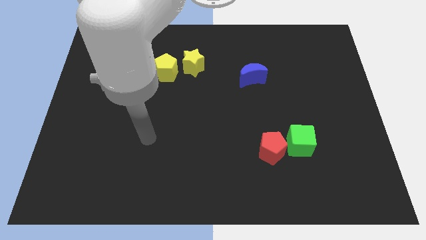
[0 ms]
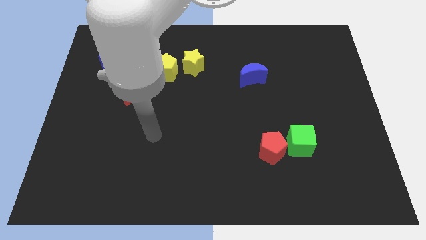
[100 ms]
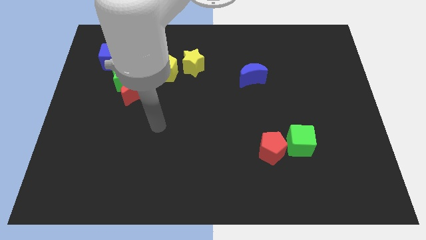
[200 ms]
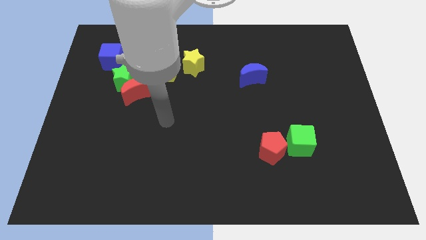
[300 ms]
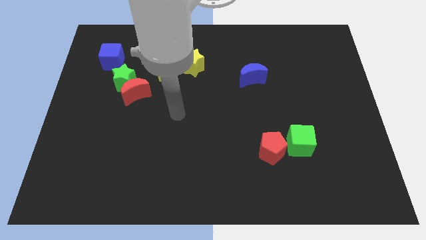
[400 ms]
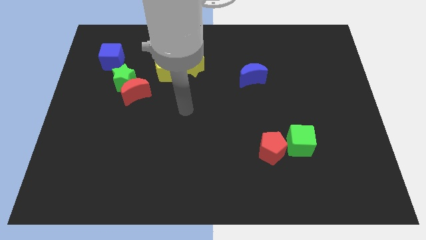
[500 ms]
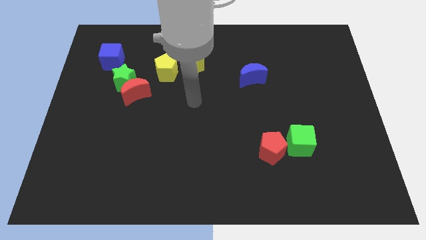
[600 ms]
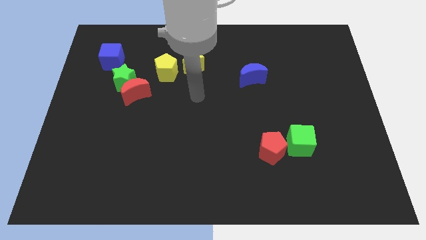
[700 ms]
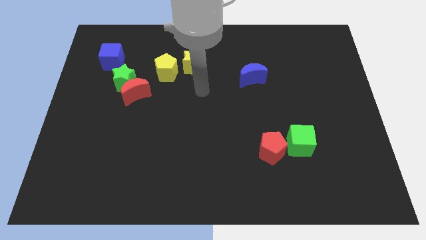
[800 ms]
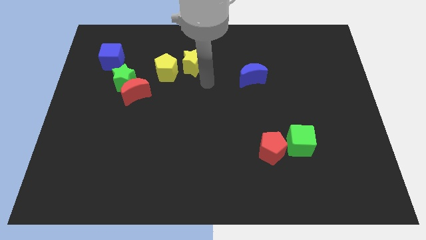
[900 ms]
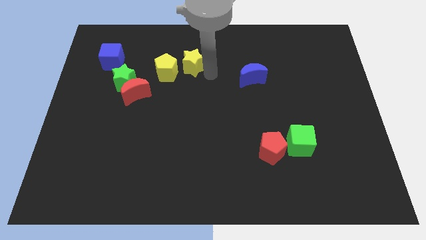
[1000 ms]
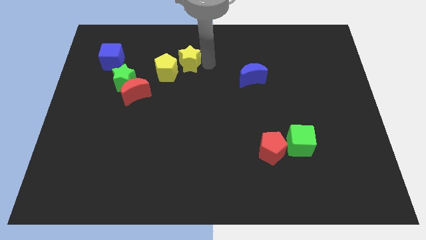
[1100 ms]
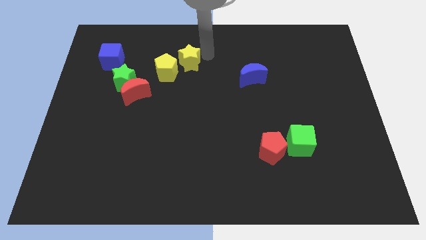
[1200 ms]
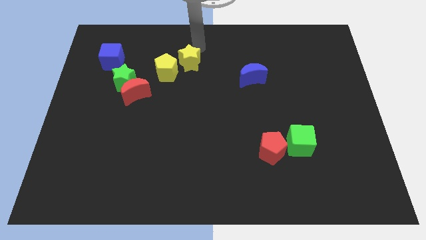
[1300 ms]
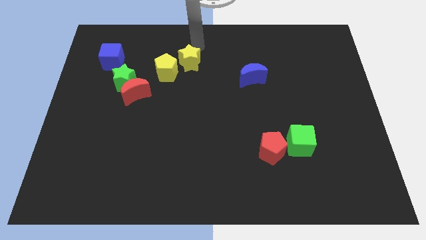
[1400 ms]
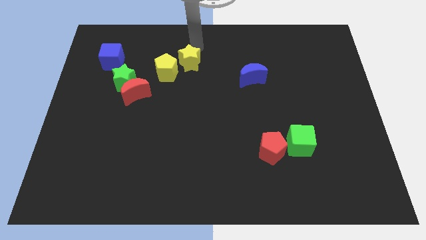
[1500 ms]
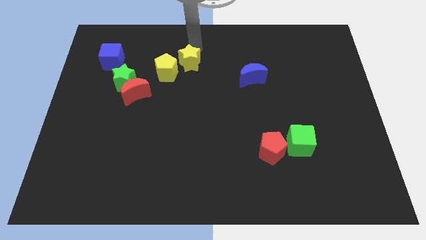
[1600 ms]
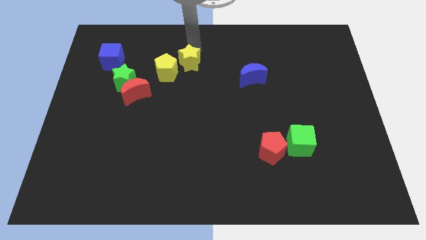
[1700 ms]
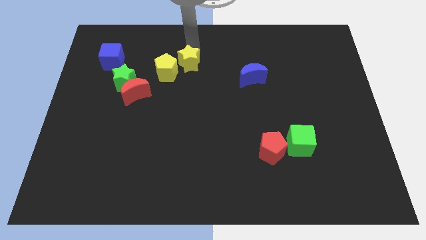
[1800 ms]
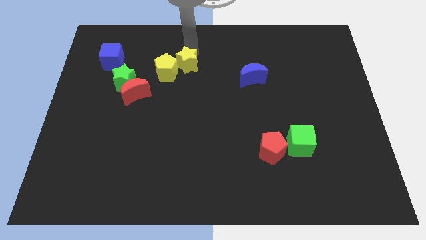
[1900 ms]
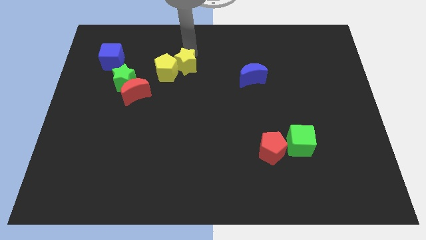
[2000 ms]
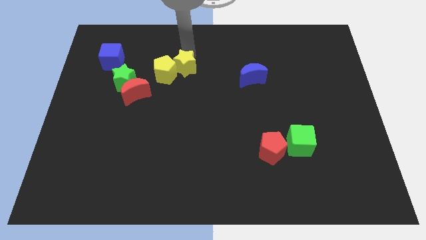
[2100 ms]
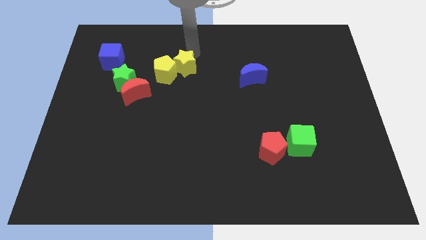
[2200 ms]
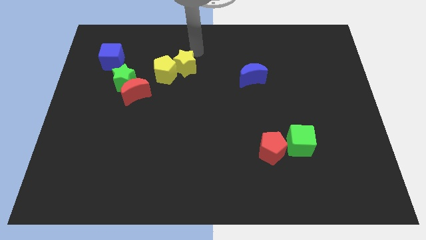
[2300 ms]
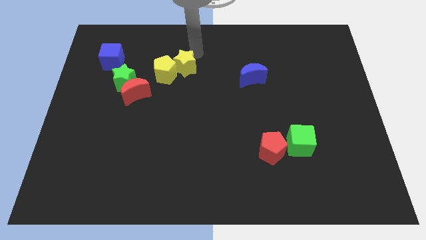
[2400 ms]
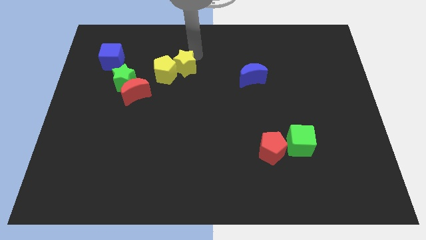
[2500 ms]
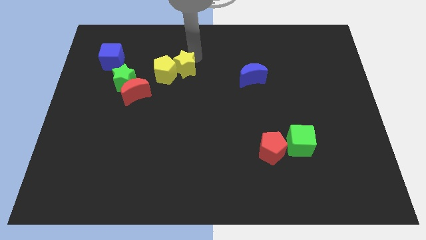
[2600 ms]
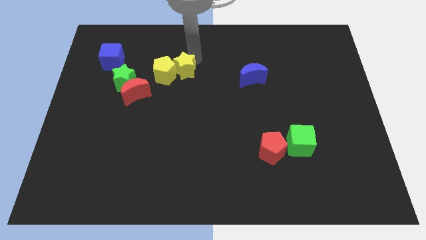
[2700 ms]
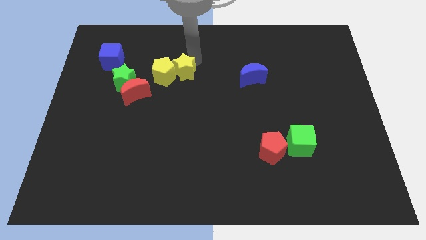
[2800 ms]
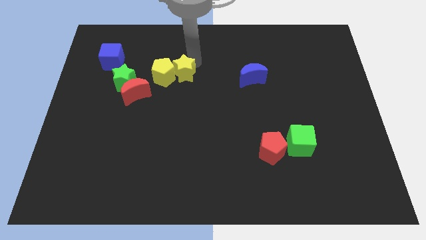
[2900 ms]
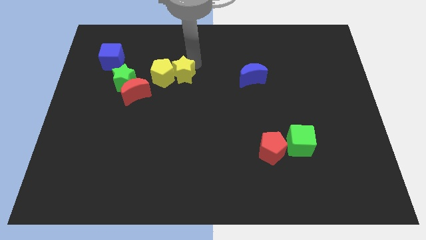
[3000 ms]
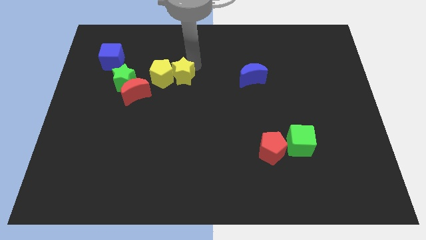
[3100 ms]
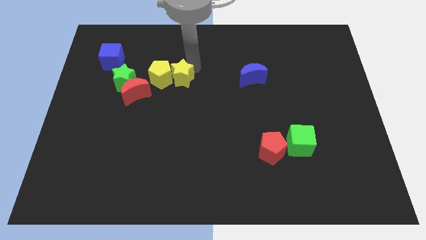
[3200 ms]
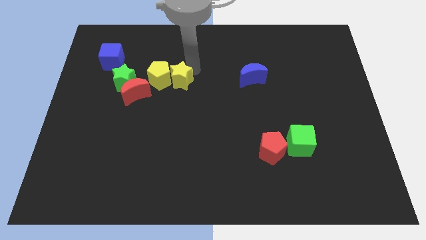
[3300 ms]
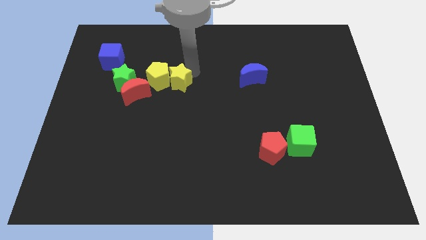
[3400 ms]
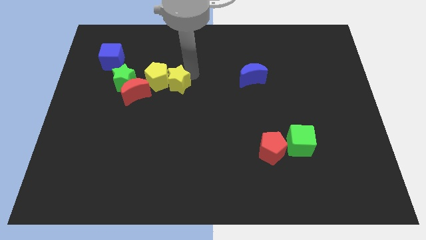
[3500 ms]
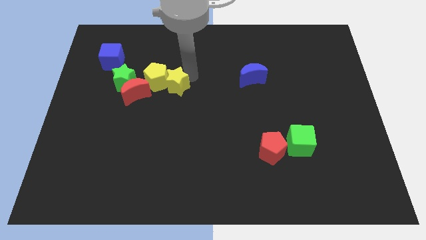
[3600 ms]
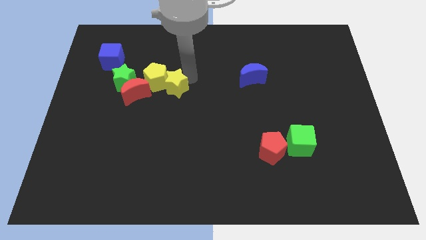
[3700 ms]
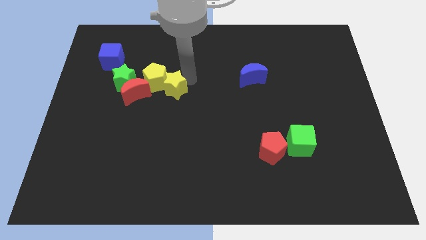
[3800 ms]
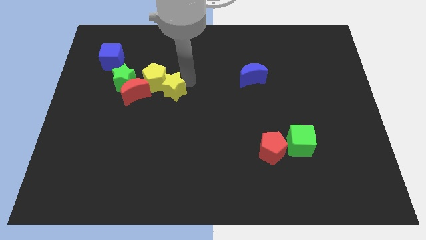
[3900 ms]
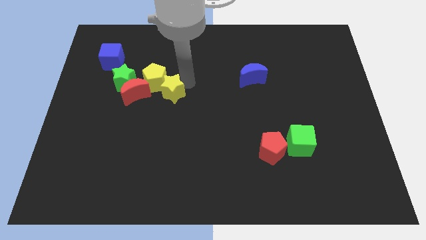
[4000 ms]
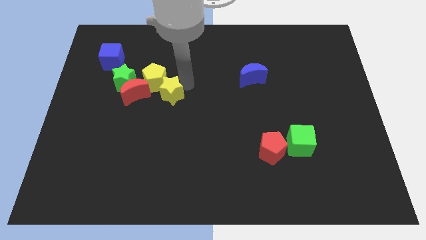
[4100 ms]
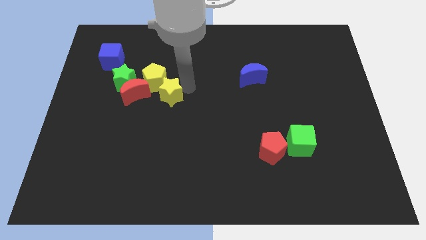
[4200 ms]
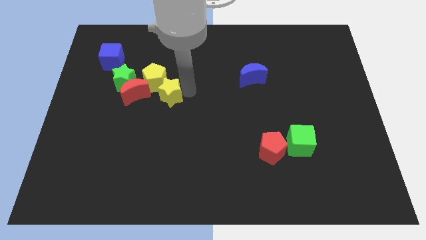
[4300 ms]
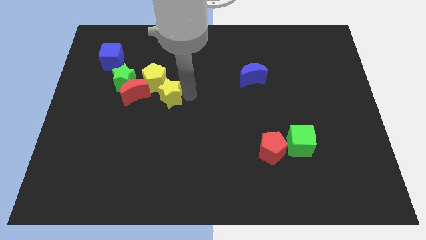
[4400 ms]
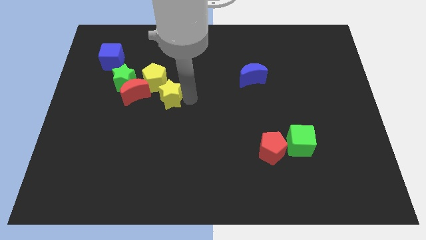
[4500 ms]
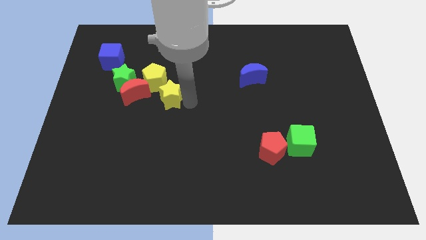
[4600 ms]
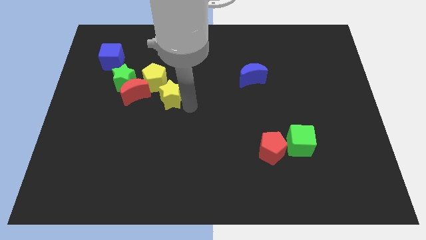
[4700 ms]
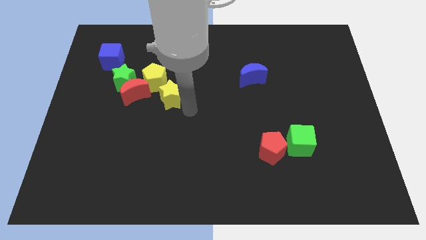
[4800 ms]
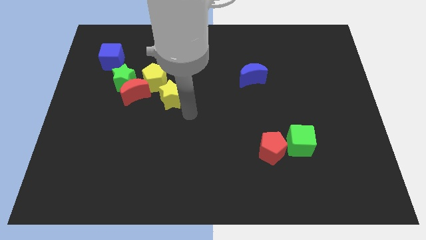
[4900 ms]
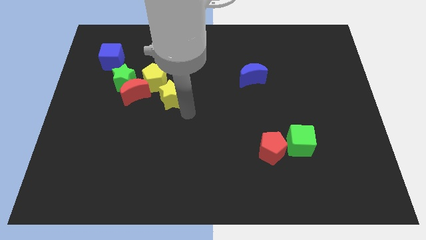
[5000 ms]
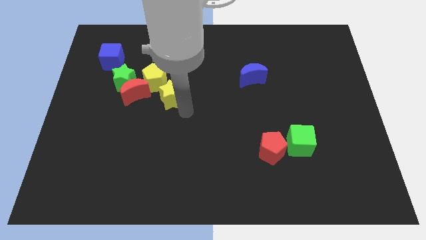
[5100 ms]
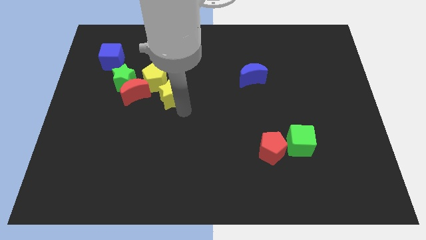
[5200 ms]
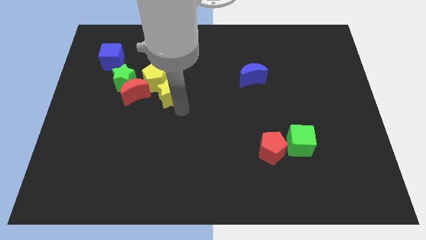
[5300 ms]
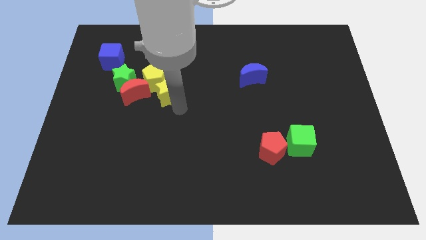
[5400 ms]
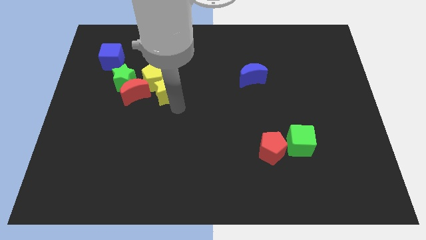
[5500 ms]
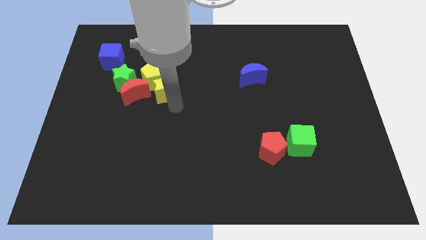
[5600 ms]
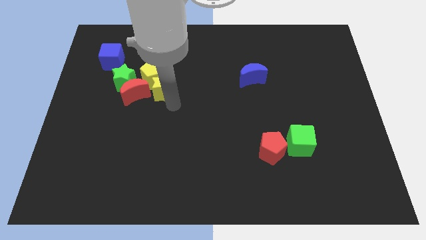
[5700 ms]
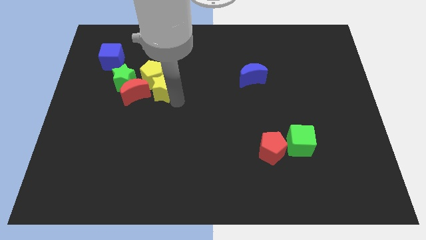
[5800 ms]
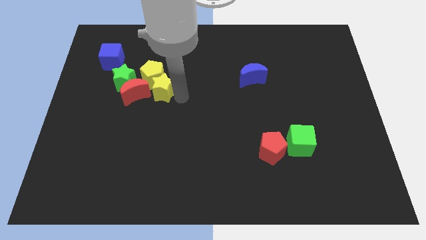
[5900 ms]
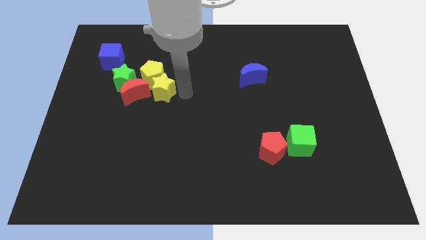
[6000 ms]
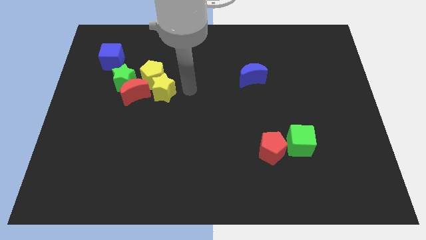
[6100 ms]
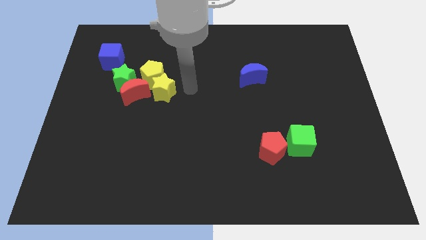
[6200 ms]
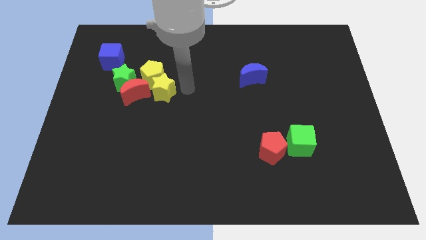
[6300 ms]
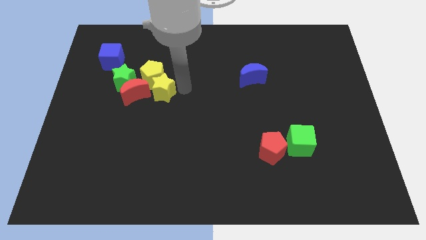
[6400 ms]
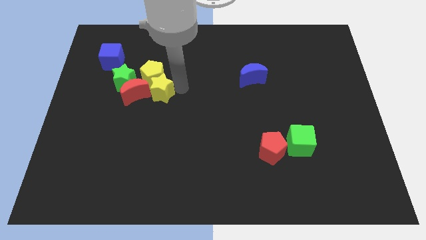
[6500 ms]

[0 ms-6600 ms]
move the yellow star next to the red moon
